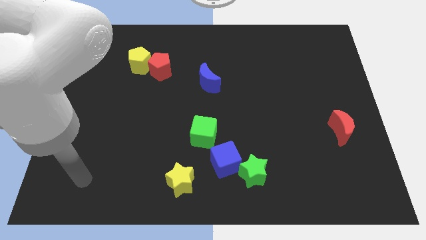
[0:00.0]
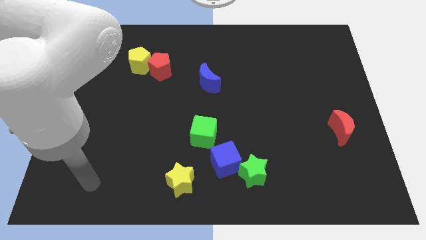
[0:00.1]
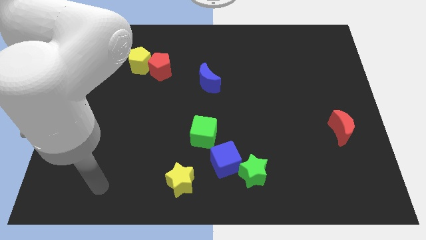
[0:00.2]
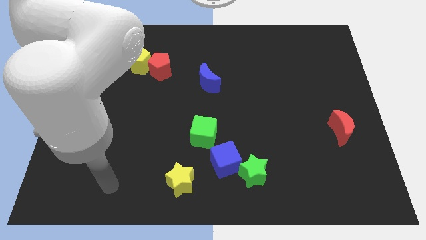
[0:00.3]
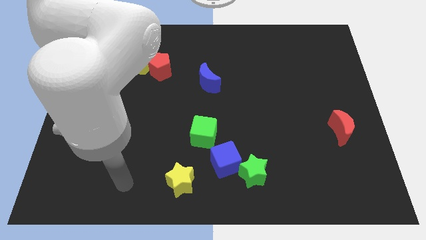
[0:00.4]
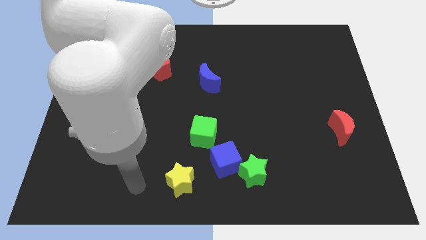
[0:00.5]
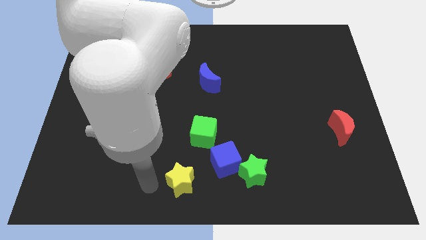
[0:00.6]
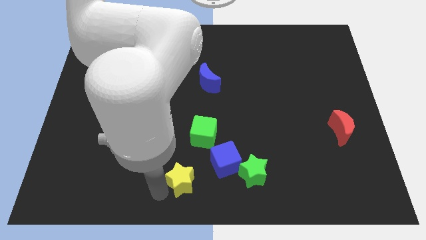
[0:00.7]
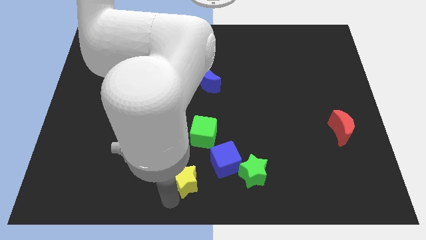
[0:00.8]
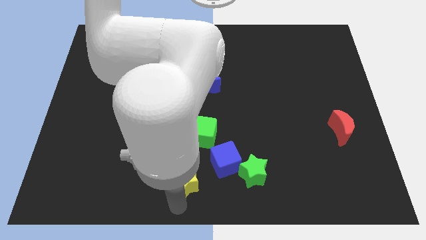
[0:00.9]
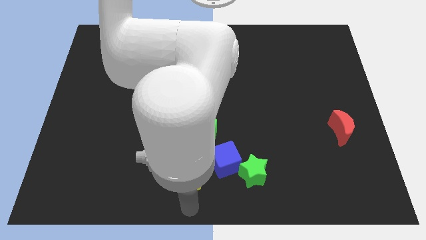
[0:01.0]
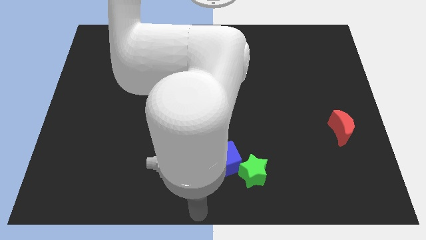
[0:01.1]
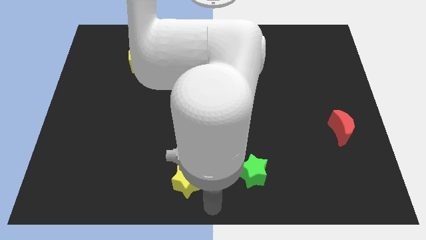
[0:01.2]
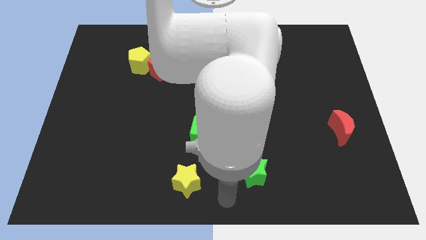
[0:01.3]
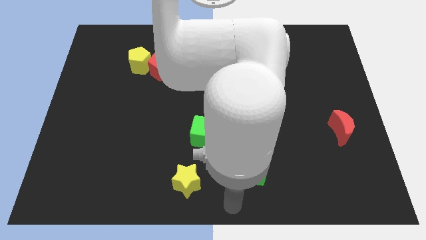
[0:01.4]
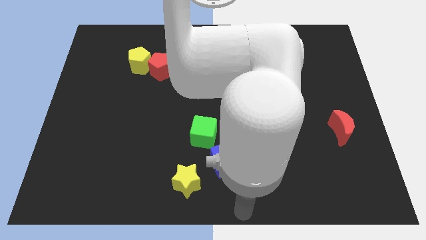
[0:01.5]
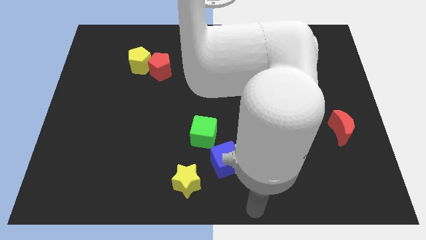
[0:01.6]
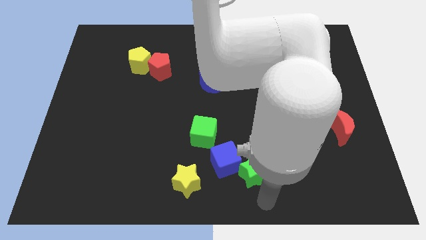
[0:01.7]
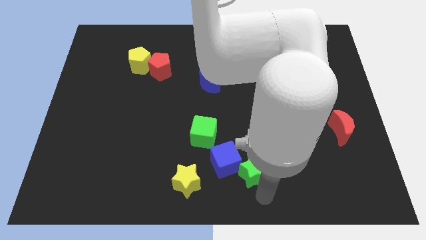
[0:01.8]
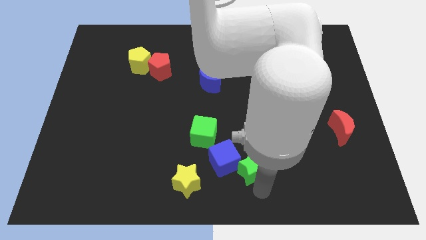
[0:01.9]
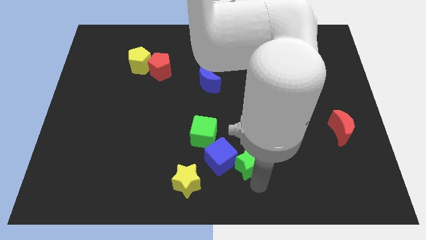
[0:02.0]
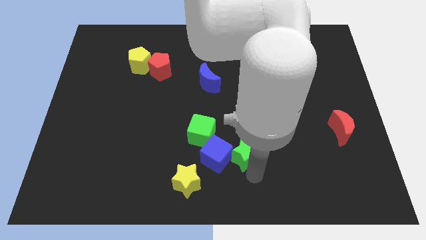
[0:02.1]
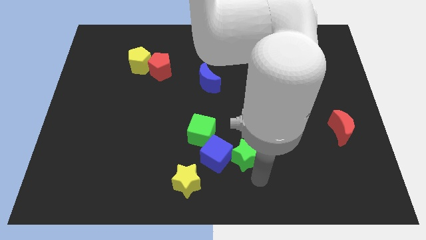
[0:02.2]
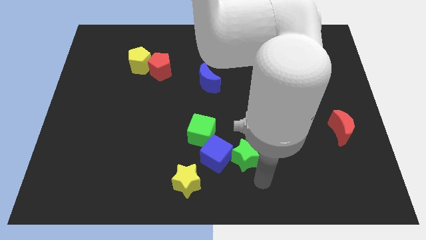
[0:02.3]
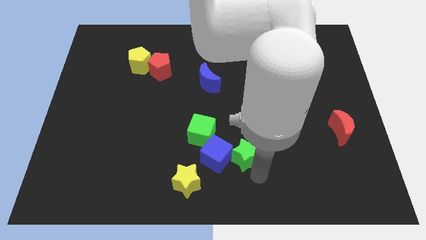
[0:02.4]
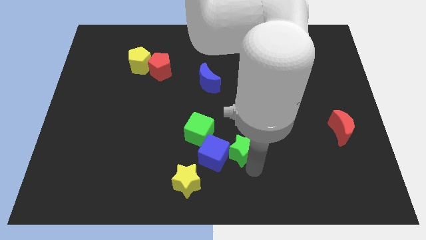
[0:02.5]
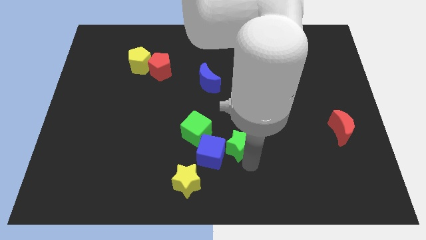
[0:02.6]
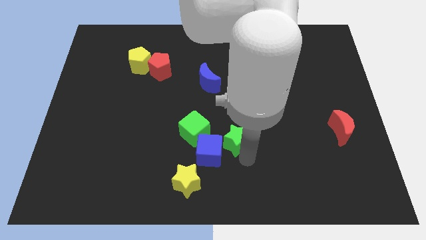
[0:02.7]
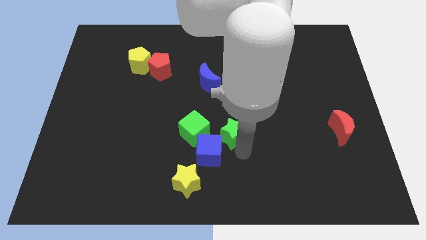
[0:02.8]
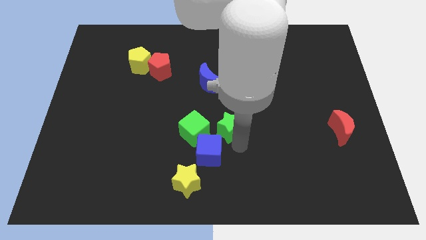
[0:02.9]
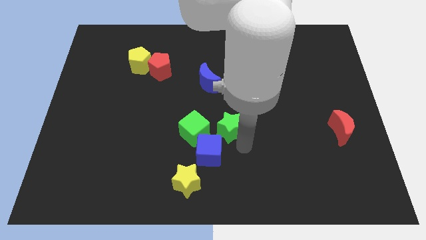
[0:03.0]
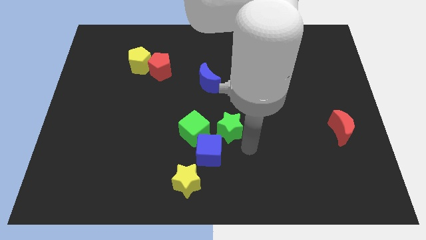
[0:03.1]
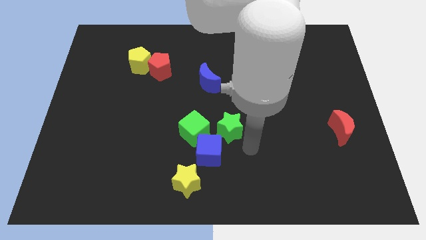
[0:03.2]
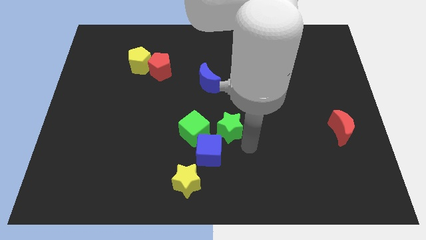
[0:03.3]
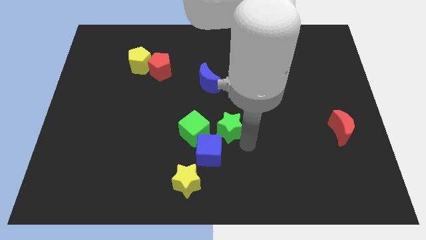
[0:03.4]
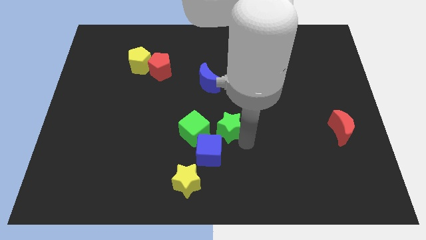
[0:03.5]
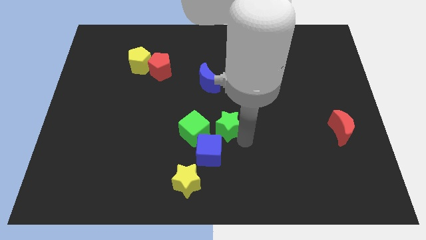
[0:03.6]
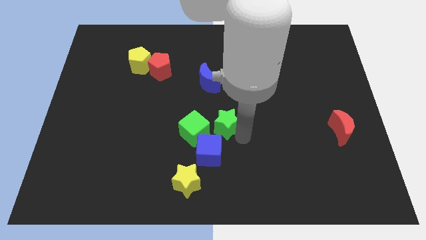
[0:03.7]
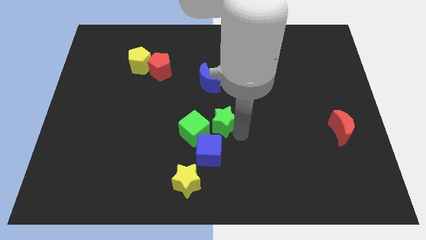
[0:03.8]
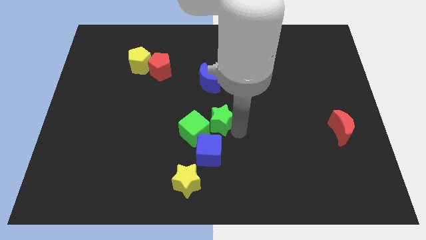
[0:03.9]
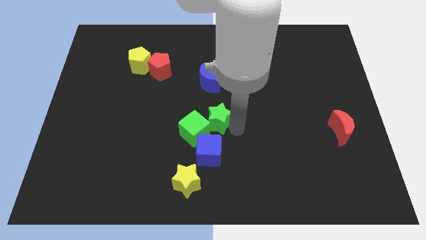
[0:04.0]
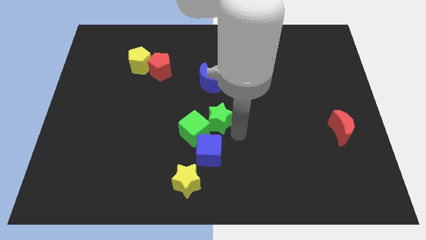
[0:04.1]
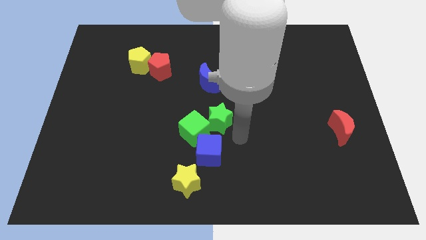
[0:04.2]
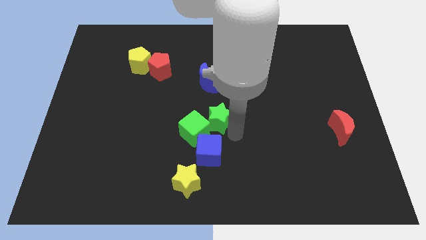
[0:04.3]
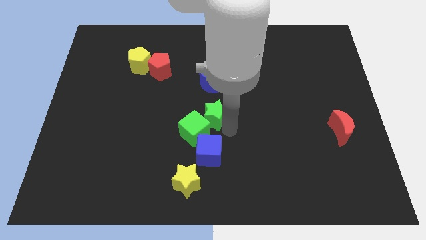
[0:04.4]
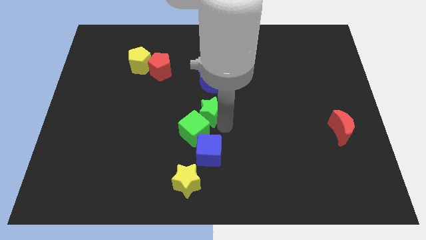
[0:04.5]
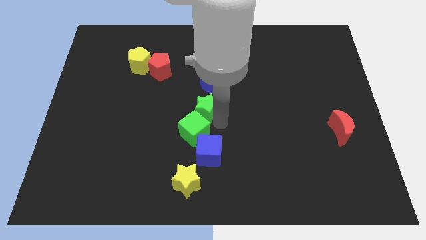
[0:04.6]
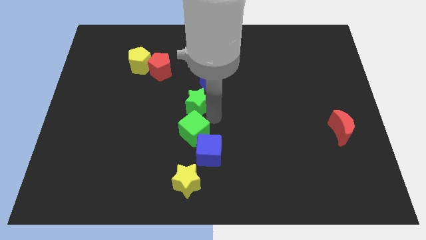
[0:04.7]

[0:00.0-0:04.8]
slide the green star upwards and left

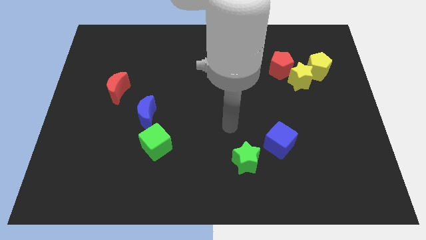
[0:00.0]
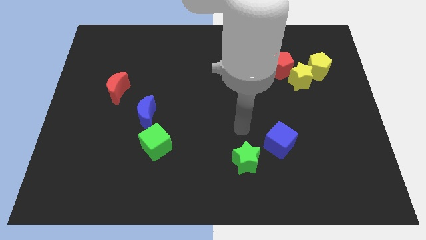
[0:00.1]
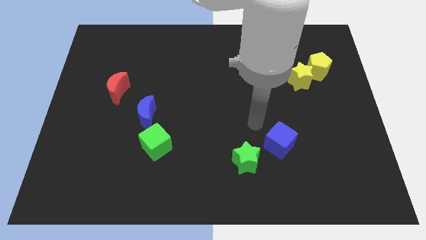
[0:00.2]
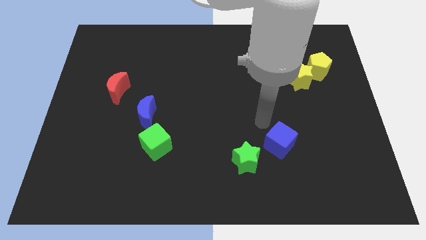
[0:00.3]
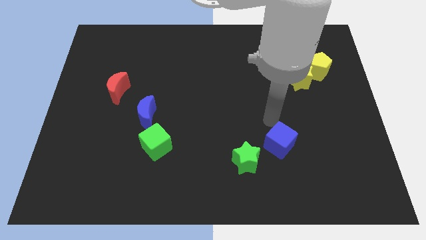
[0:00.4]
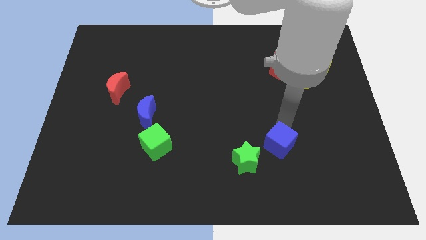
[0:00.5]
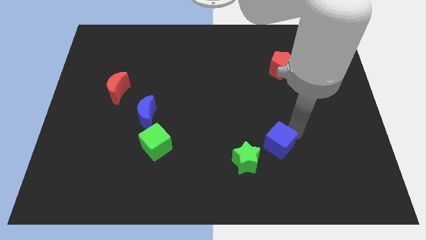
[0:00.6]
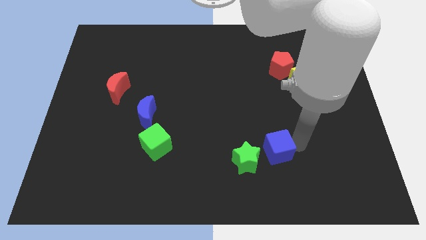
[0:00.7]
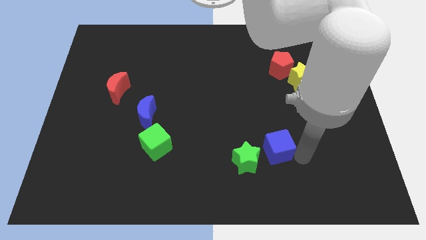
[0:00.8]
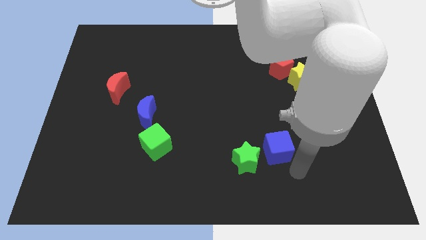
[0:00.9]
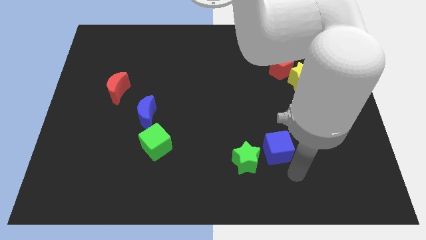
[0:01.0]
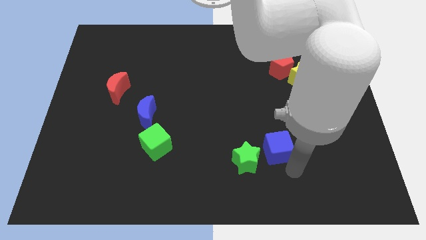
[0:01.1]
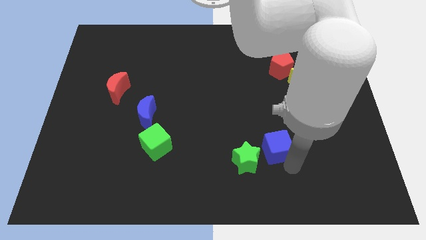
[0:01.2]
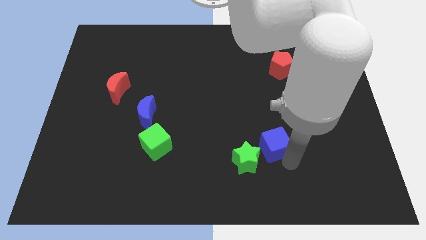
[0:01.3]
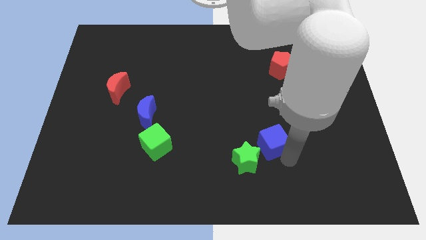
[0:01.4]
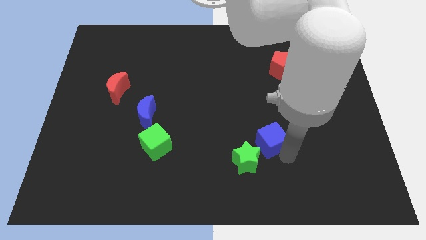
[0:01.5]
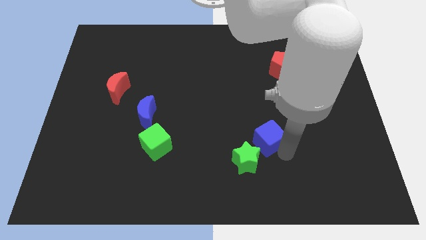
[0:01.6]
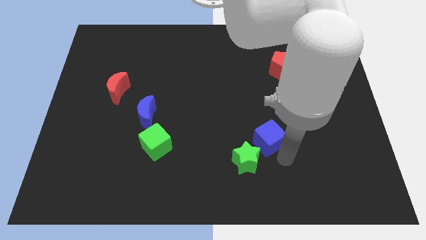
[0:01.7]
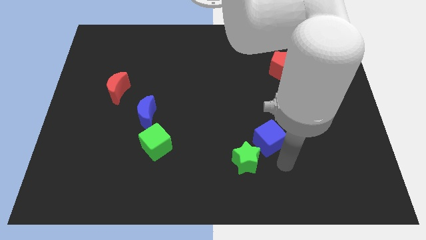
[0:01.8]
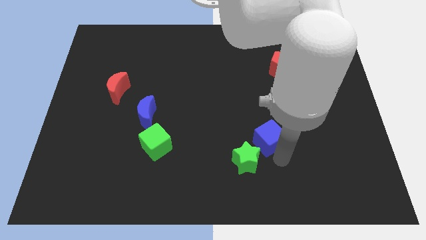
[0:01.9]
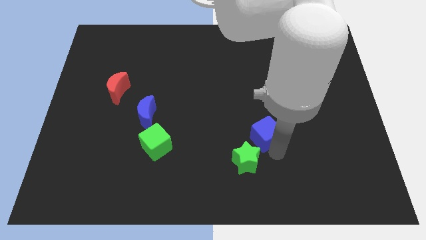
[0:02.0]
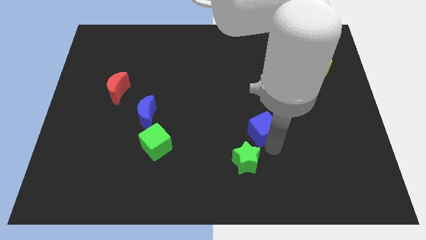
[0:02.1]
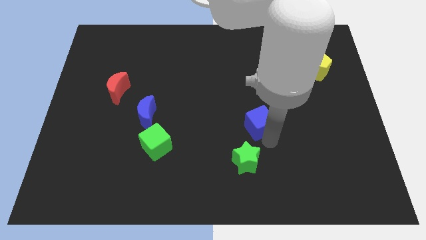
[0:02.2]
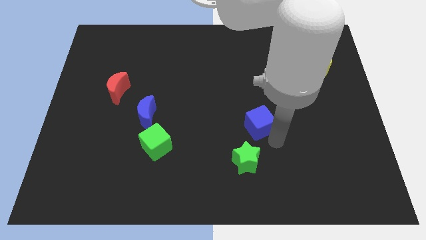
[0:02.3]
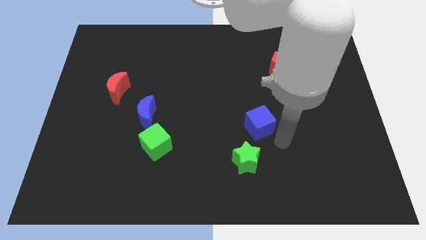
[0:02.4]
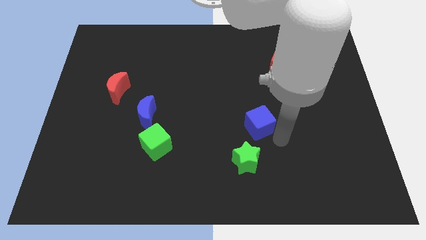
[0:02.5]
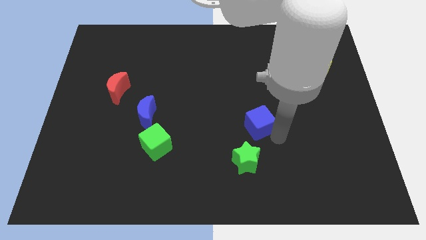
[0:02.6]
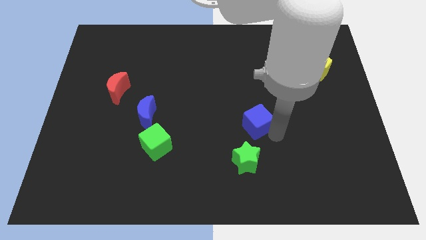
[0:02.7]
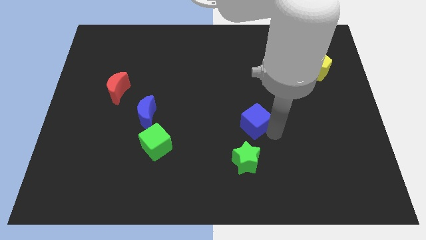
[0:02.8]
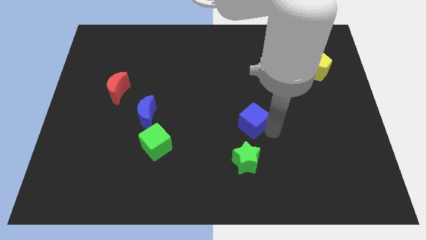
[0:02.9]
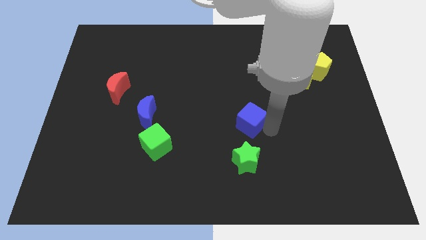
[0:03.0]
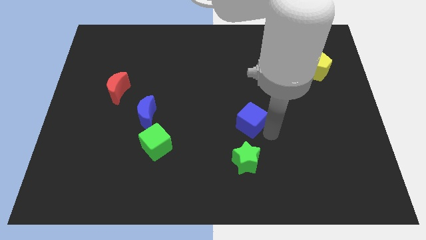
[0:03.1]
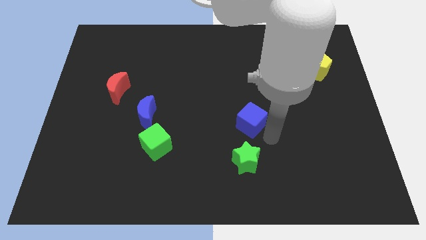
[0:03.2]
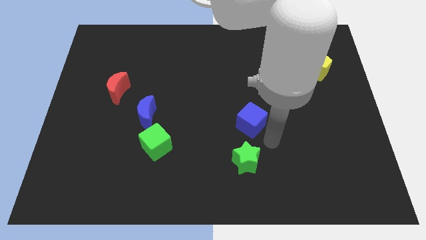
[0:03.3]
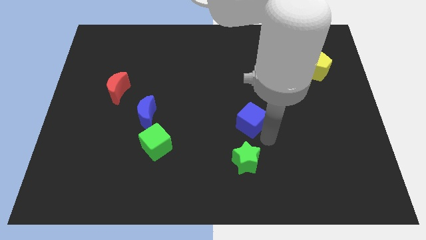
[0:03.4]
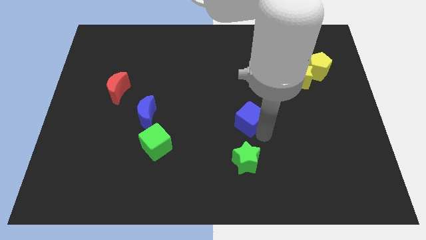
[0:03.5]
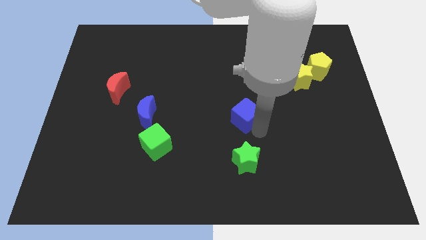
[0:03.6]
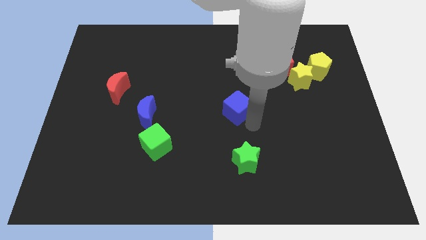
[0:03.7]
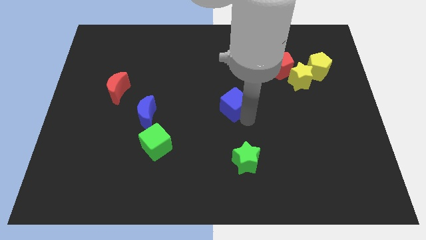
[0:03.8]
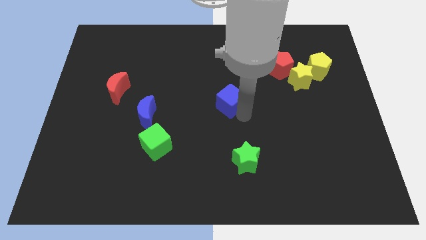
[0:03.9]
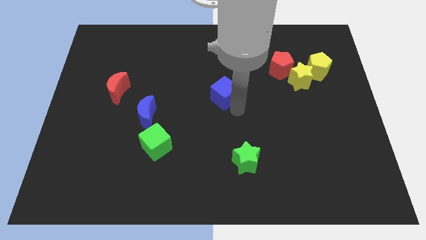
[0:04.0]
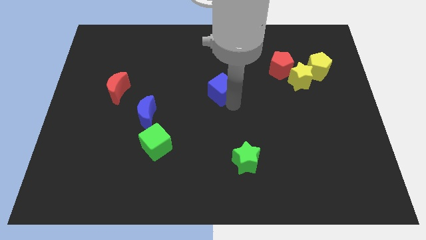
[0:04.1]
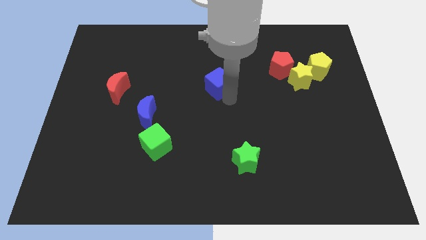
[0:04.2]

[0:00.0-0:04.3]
move the blue cube upwards and left diagonally
